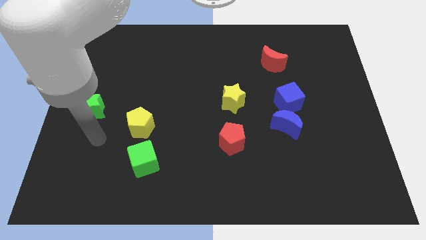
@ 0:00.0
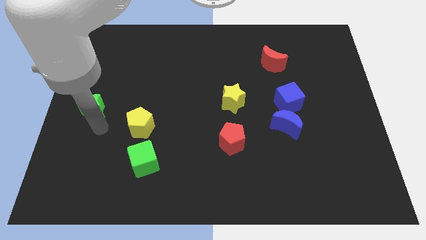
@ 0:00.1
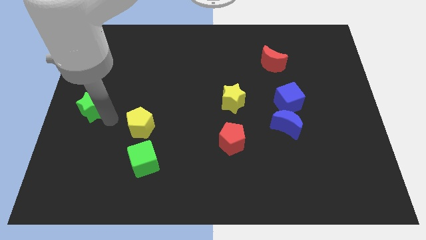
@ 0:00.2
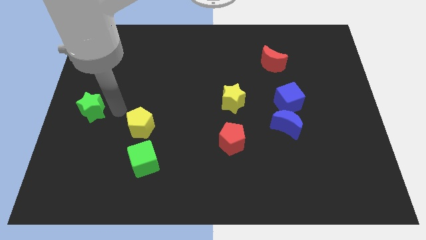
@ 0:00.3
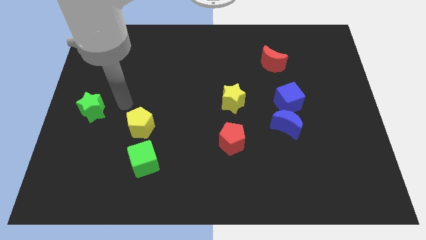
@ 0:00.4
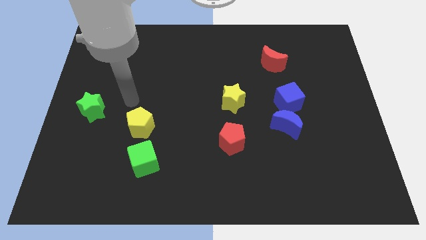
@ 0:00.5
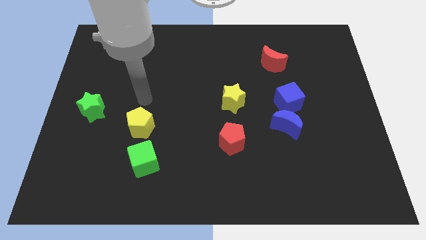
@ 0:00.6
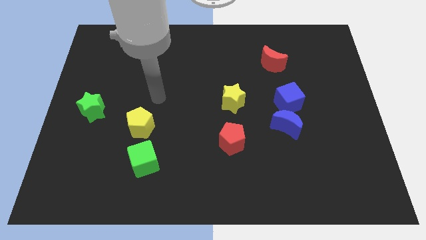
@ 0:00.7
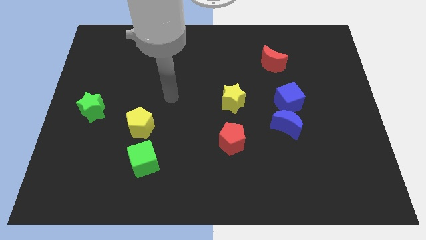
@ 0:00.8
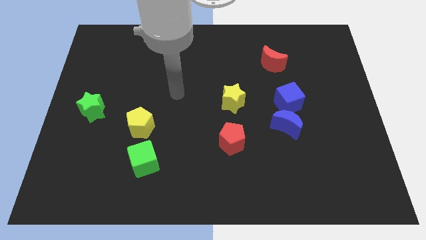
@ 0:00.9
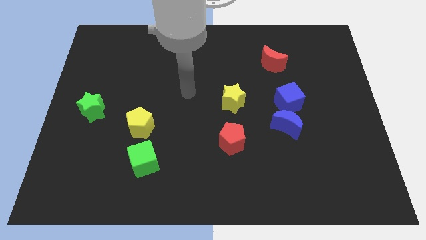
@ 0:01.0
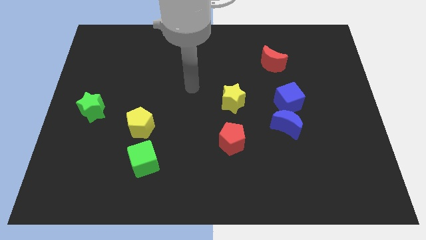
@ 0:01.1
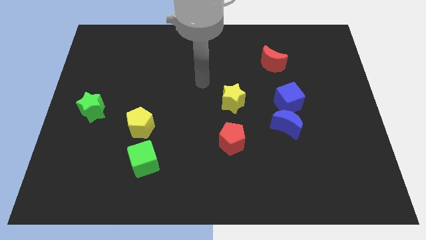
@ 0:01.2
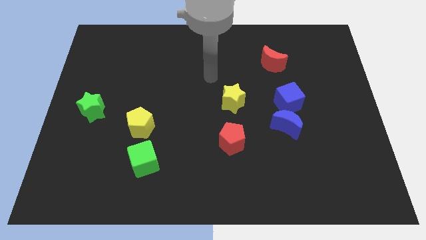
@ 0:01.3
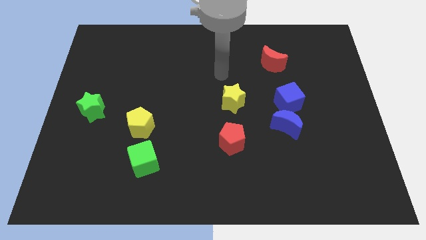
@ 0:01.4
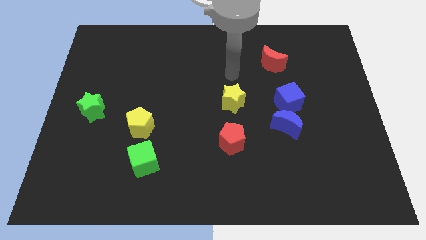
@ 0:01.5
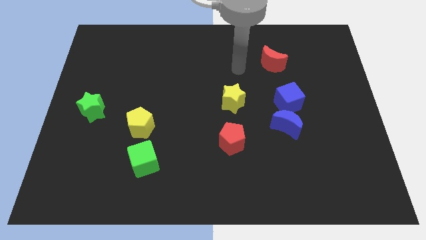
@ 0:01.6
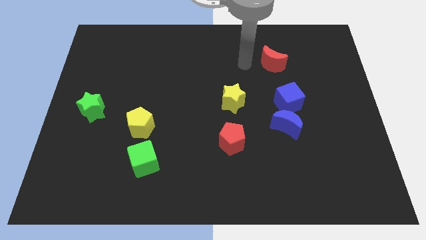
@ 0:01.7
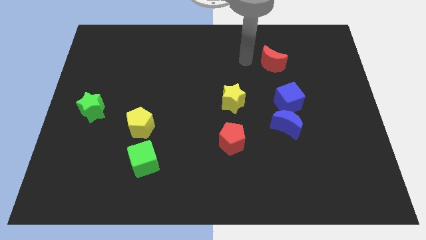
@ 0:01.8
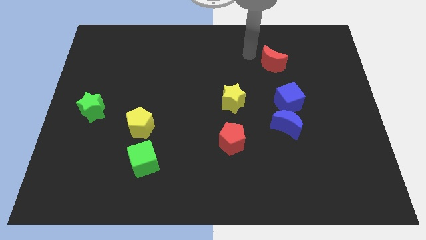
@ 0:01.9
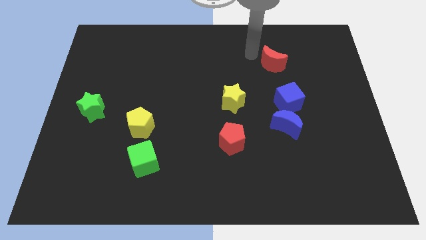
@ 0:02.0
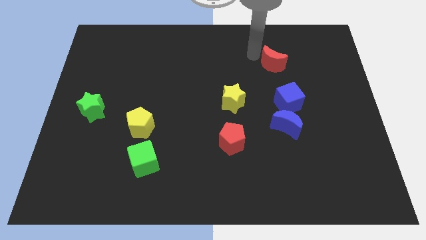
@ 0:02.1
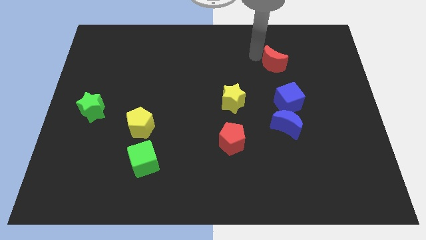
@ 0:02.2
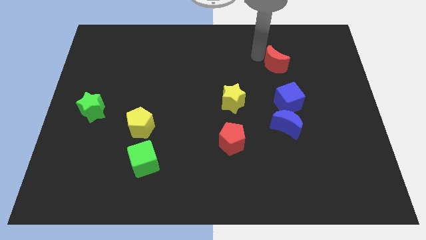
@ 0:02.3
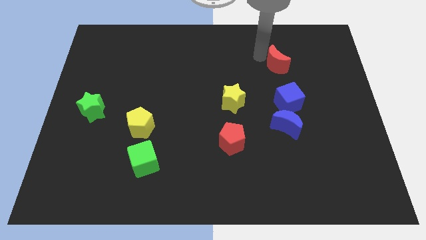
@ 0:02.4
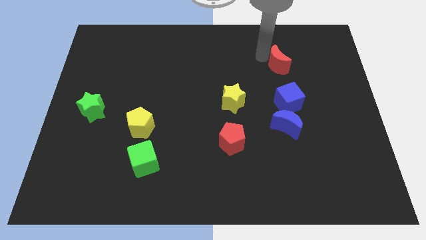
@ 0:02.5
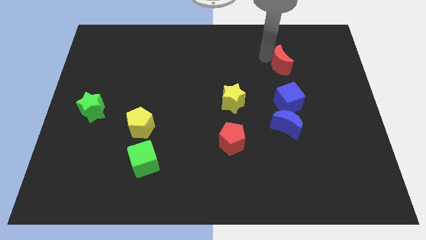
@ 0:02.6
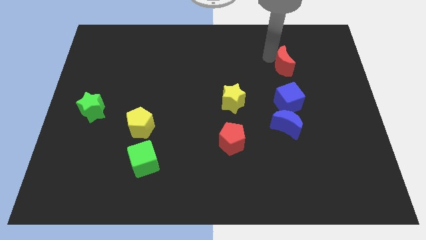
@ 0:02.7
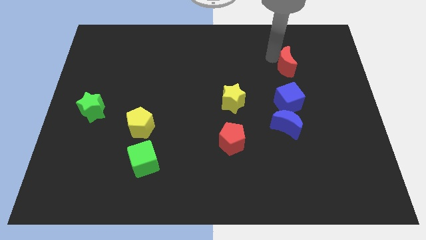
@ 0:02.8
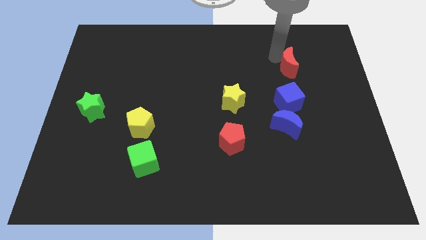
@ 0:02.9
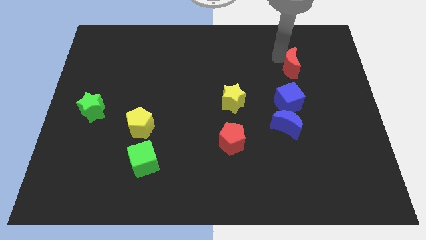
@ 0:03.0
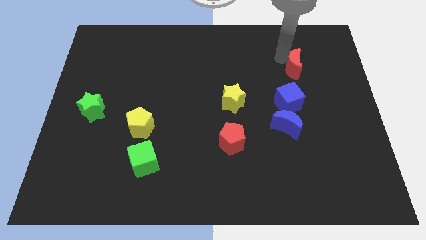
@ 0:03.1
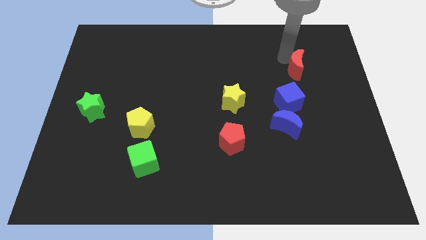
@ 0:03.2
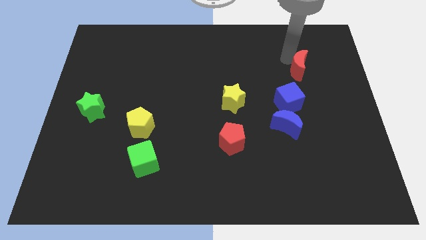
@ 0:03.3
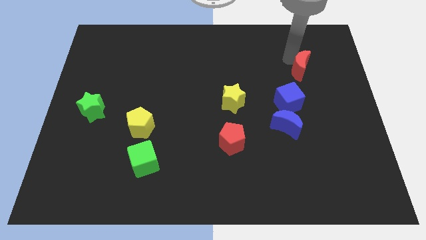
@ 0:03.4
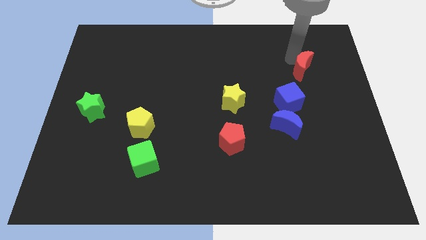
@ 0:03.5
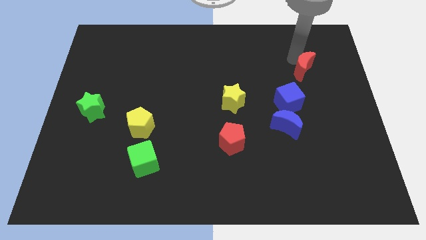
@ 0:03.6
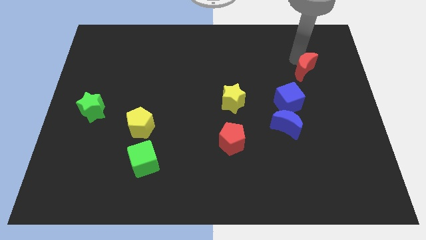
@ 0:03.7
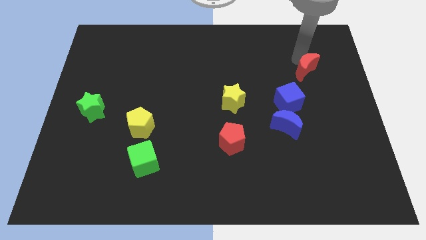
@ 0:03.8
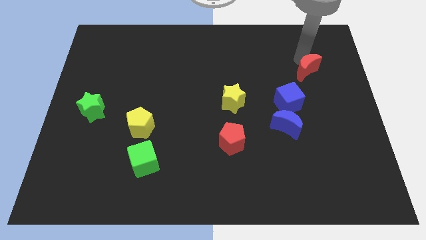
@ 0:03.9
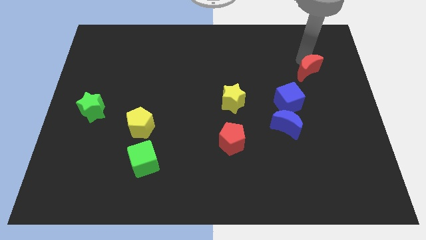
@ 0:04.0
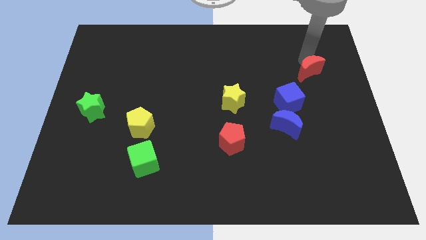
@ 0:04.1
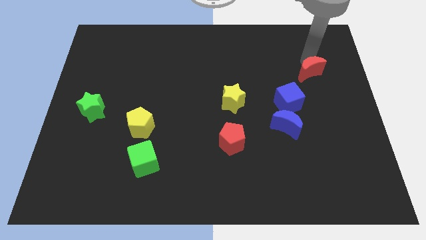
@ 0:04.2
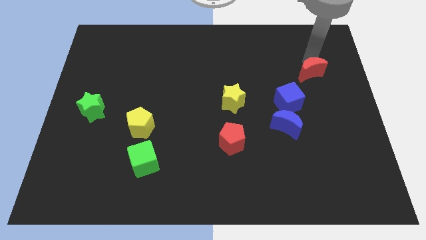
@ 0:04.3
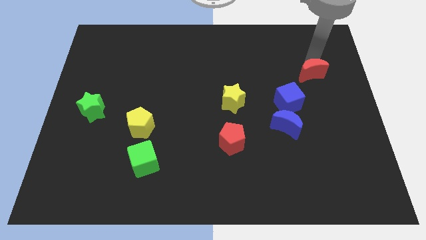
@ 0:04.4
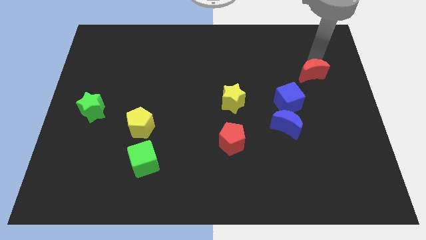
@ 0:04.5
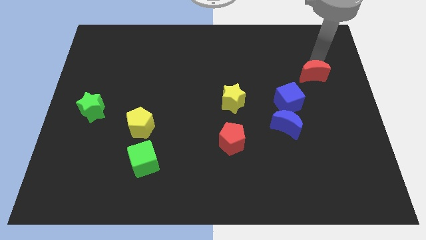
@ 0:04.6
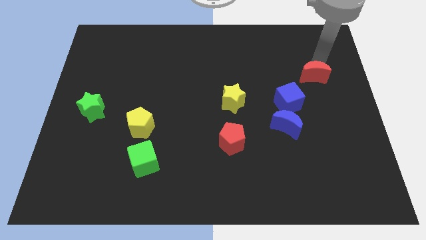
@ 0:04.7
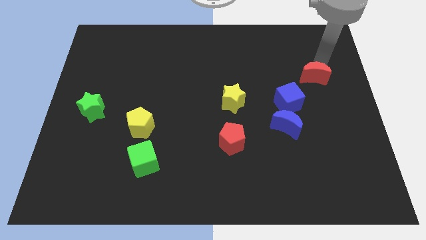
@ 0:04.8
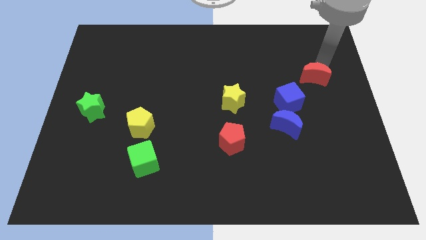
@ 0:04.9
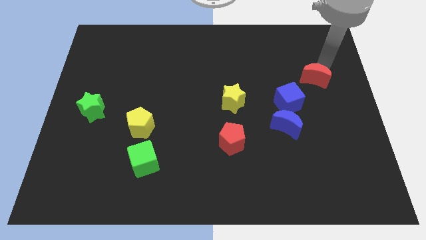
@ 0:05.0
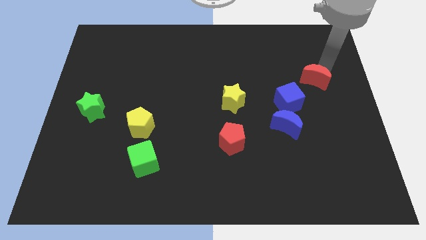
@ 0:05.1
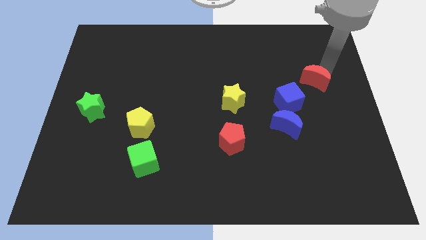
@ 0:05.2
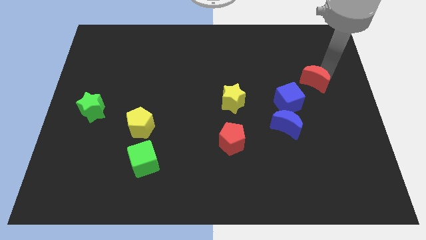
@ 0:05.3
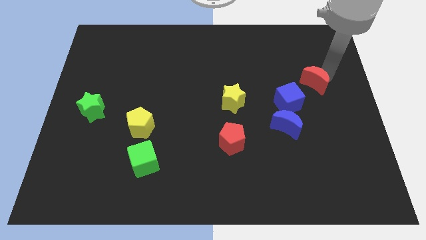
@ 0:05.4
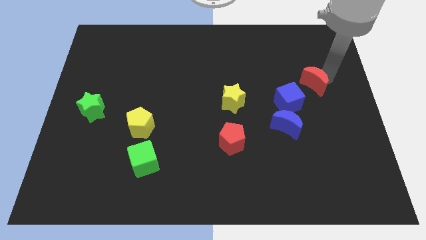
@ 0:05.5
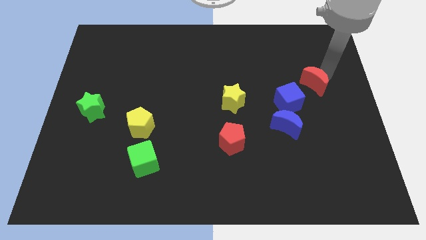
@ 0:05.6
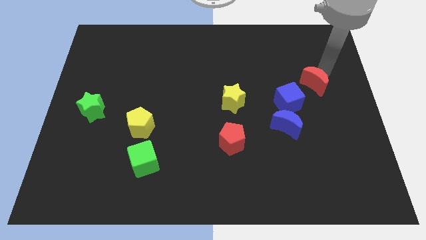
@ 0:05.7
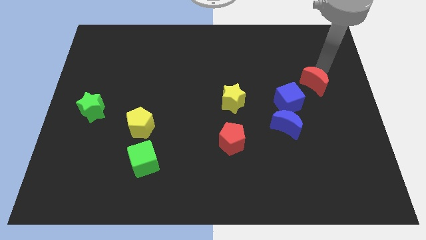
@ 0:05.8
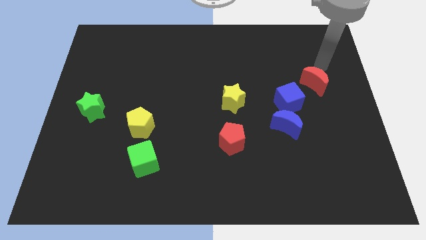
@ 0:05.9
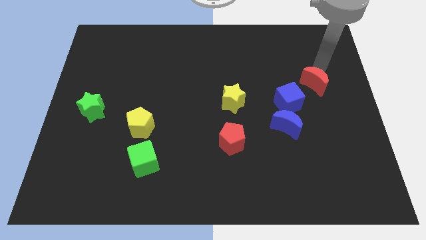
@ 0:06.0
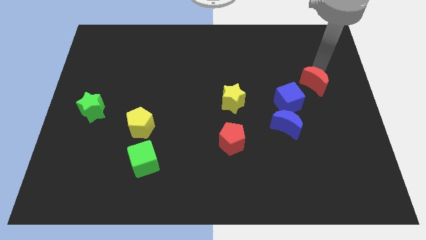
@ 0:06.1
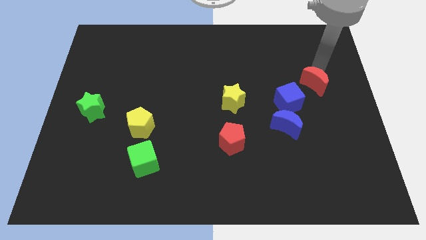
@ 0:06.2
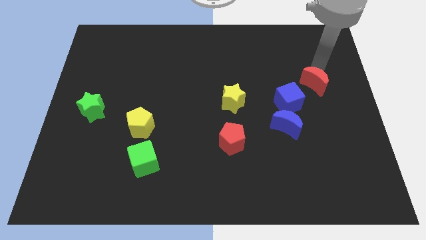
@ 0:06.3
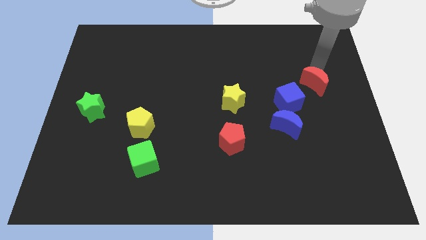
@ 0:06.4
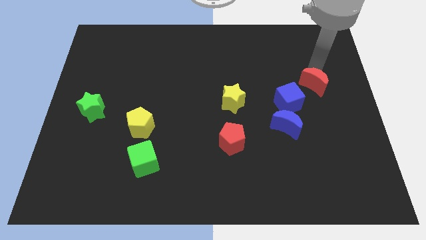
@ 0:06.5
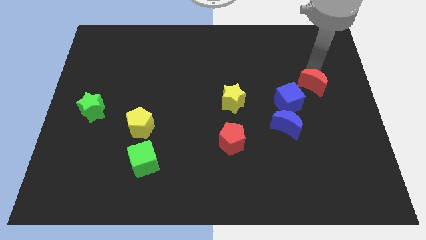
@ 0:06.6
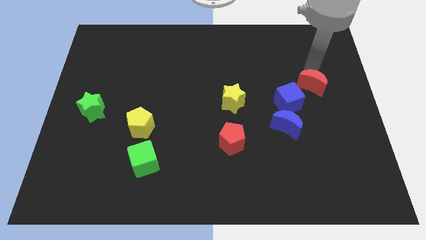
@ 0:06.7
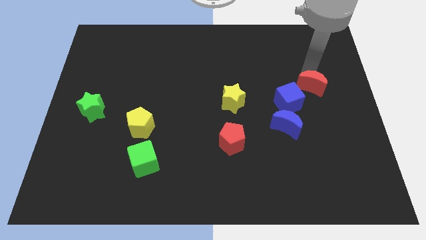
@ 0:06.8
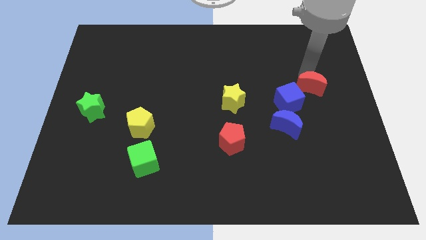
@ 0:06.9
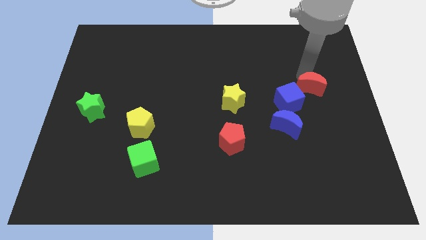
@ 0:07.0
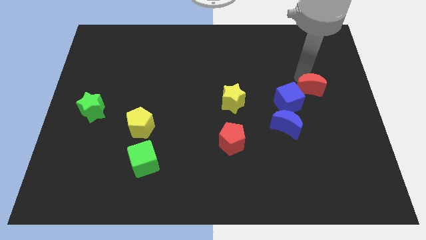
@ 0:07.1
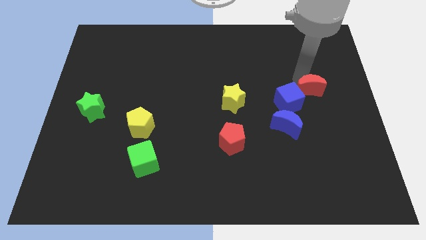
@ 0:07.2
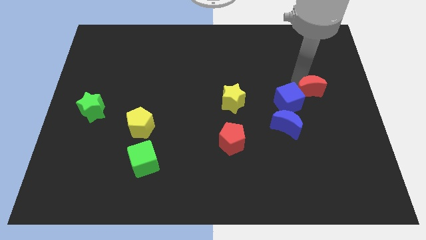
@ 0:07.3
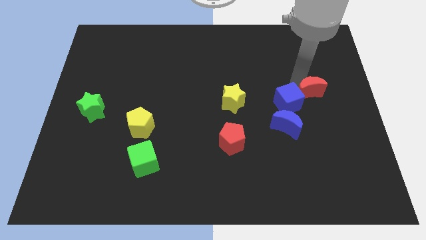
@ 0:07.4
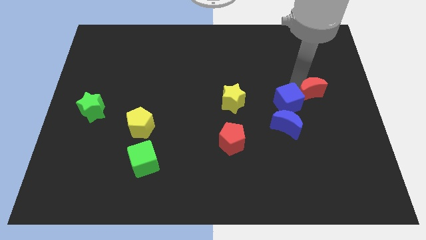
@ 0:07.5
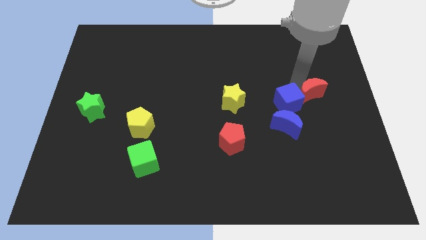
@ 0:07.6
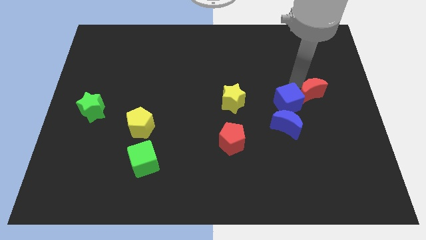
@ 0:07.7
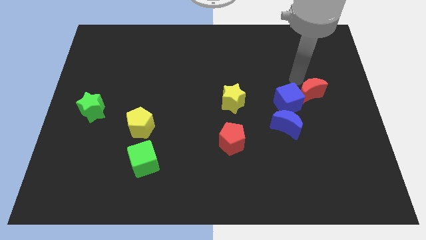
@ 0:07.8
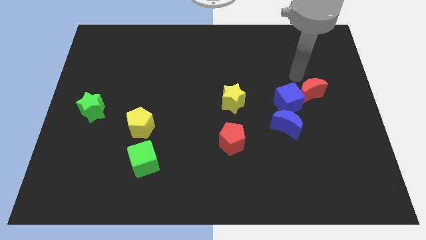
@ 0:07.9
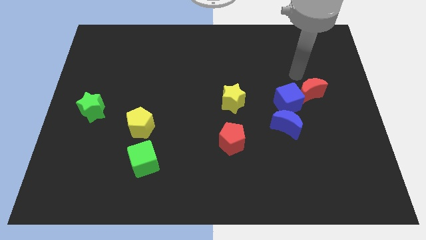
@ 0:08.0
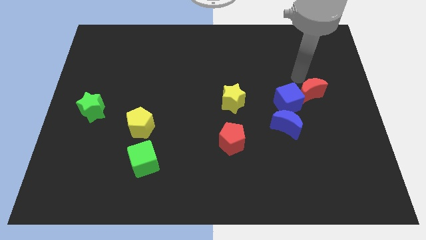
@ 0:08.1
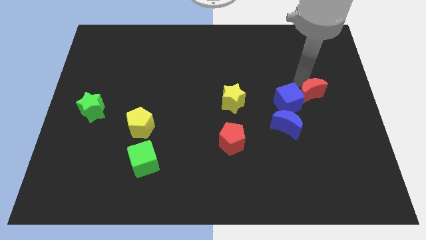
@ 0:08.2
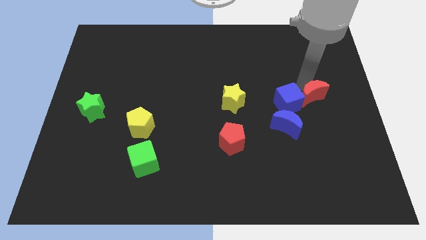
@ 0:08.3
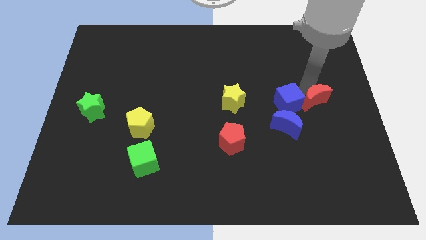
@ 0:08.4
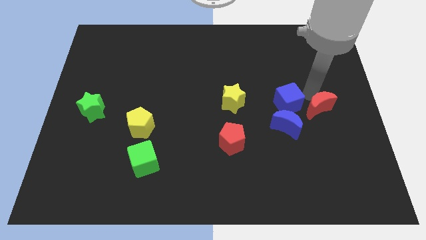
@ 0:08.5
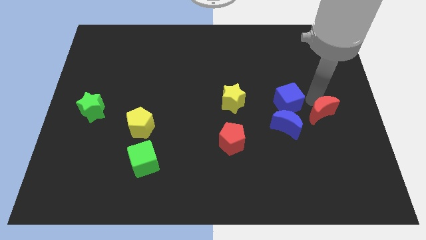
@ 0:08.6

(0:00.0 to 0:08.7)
move the red moon to the right of the blue moon
